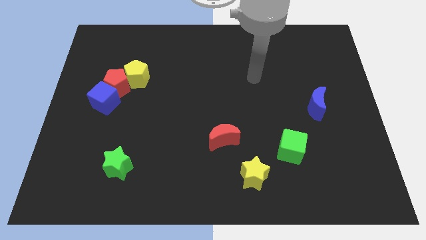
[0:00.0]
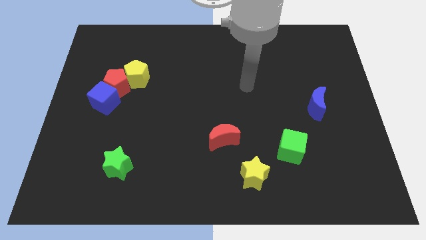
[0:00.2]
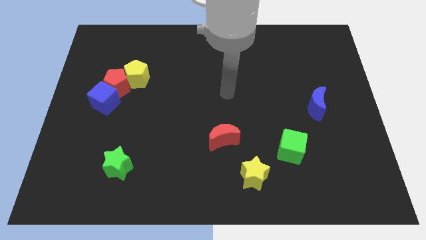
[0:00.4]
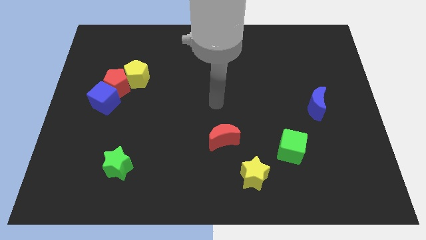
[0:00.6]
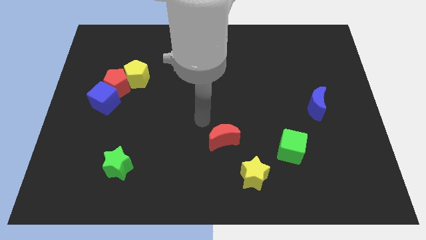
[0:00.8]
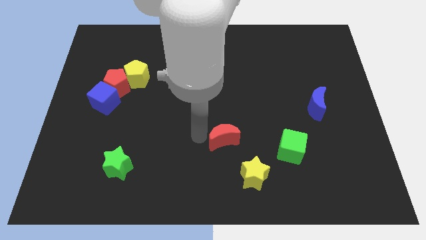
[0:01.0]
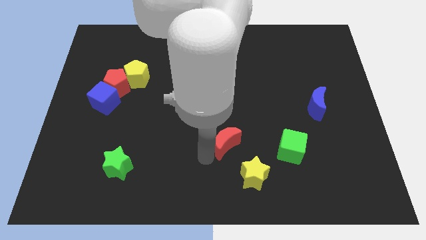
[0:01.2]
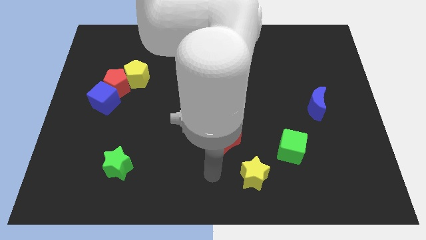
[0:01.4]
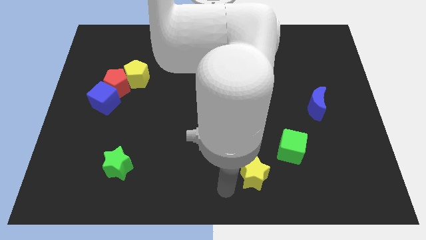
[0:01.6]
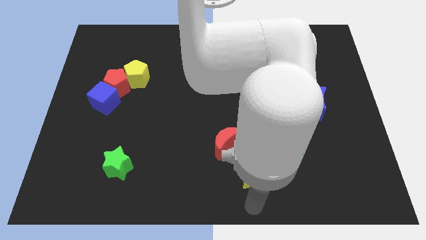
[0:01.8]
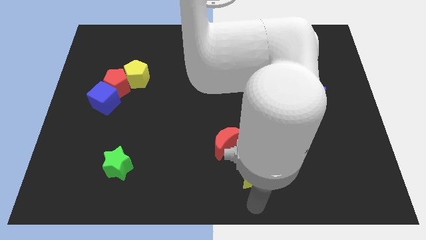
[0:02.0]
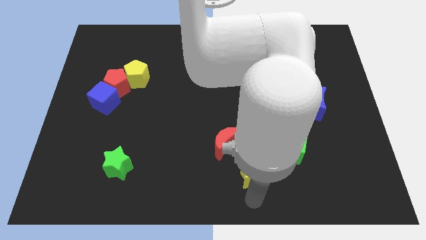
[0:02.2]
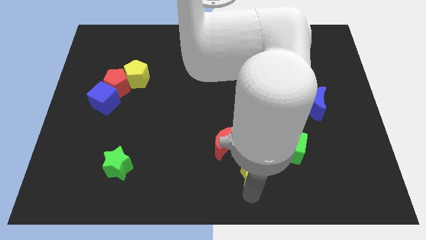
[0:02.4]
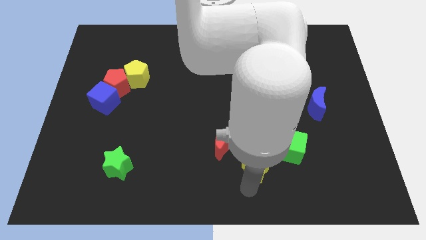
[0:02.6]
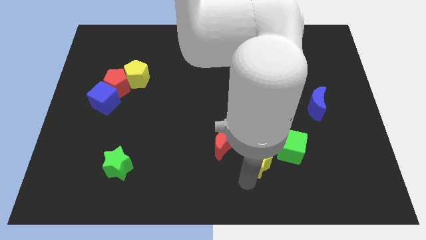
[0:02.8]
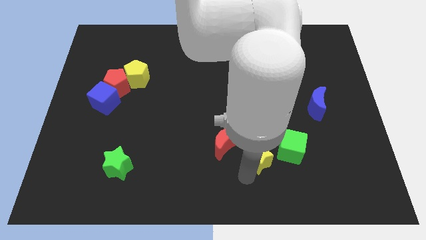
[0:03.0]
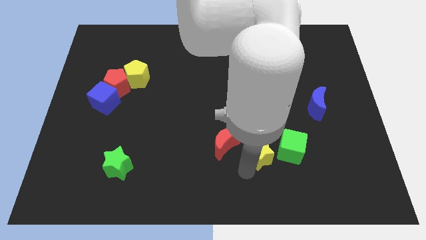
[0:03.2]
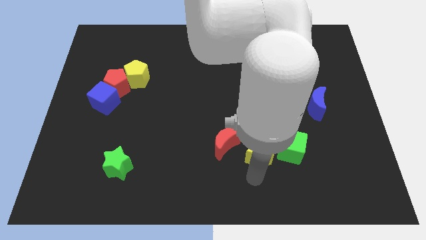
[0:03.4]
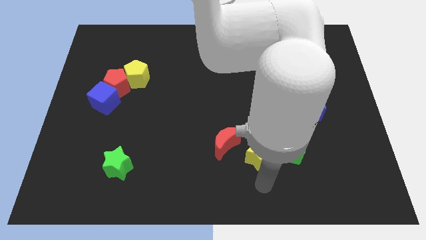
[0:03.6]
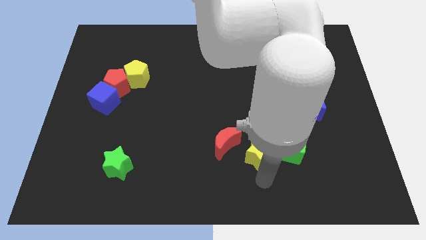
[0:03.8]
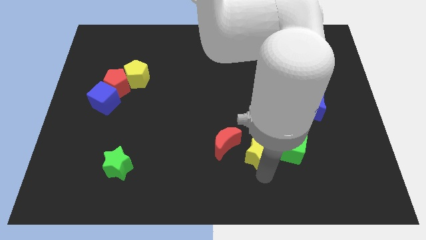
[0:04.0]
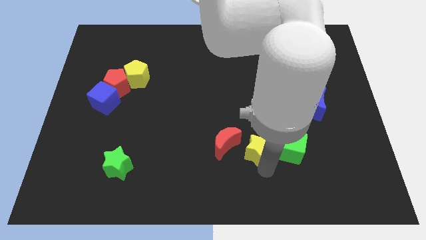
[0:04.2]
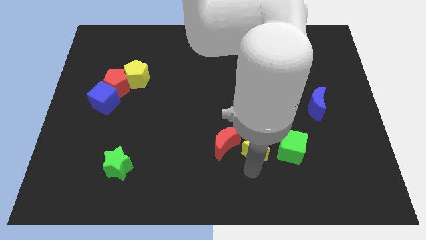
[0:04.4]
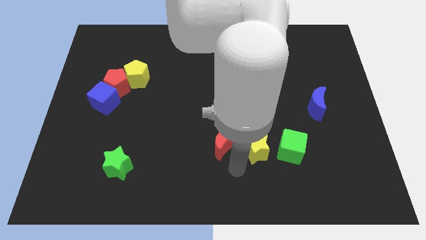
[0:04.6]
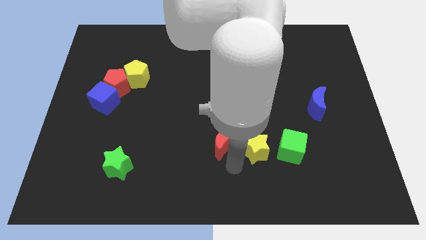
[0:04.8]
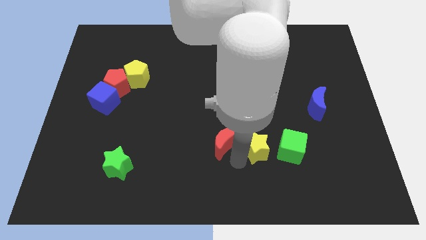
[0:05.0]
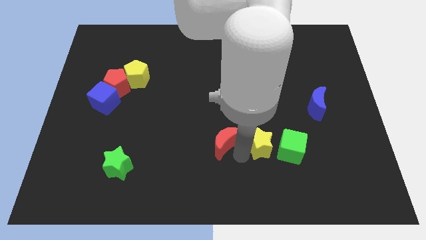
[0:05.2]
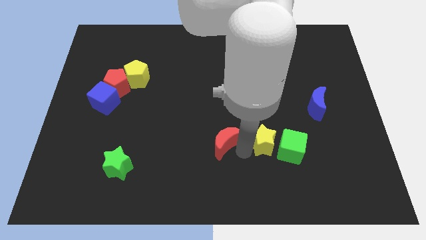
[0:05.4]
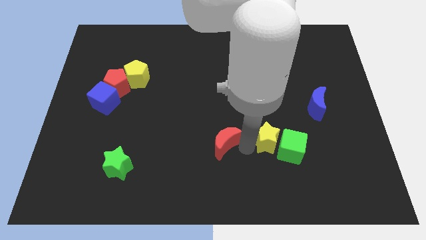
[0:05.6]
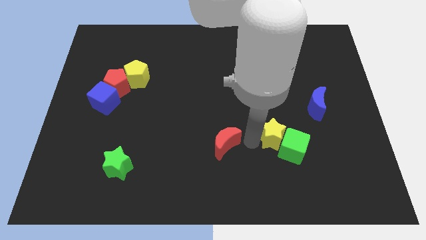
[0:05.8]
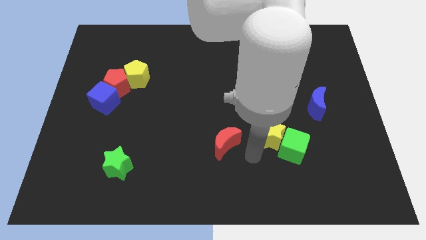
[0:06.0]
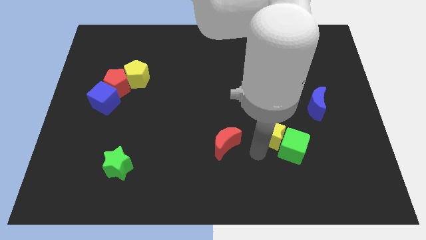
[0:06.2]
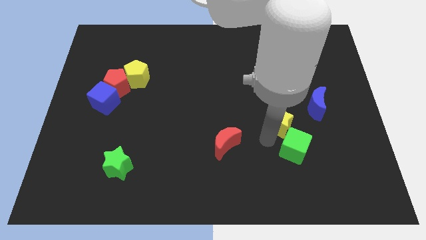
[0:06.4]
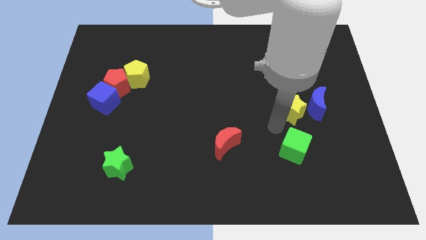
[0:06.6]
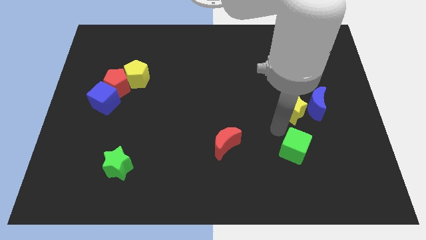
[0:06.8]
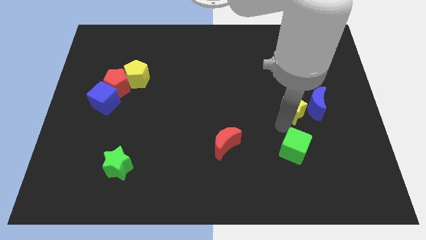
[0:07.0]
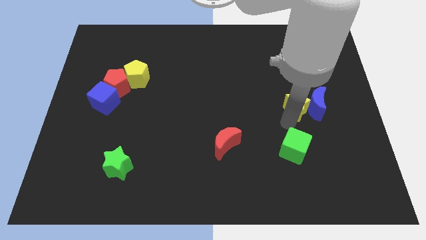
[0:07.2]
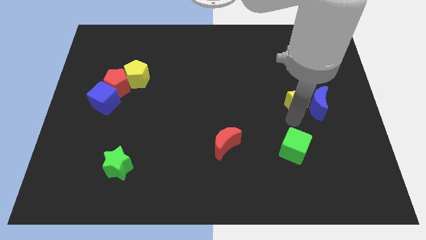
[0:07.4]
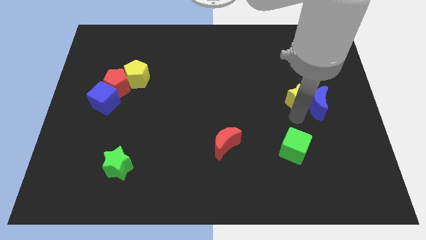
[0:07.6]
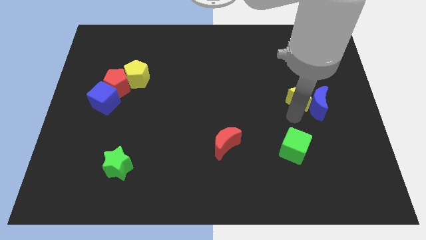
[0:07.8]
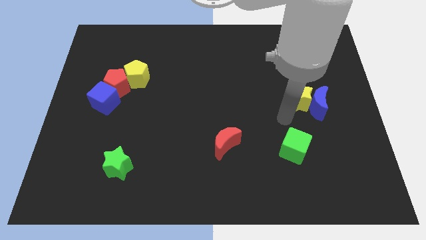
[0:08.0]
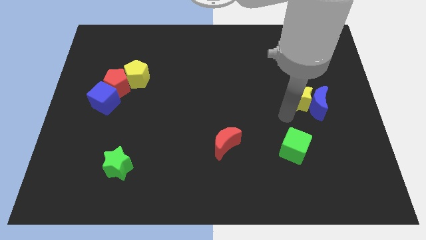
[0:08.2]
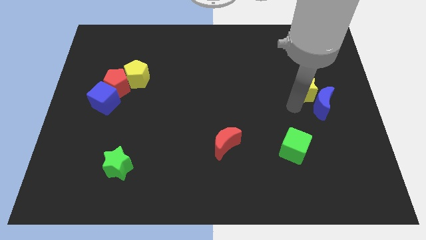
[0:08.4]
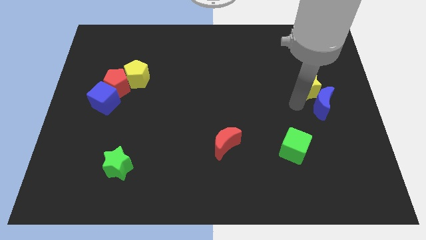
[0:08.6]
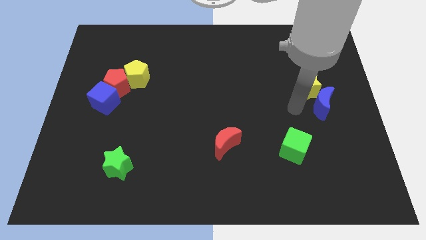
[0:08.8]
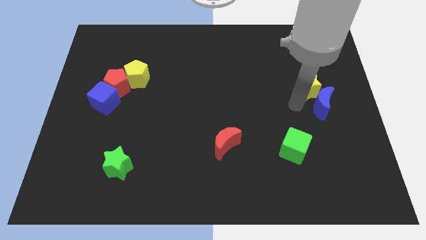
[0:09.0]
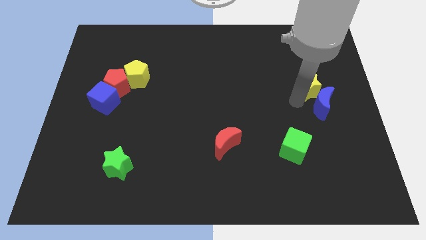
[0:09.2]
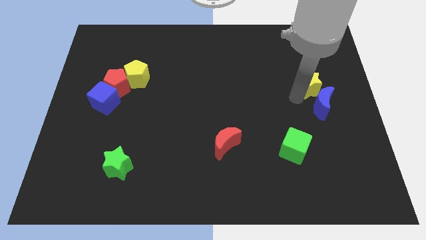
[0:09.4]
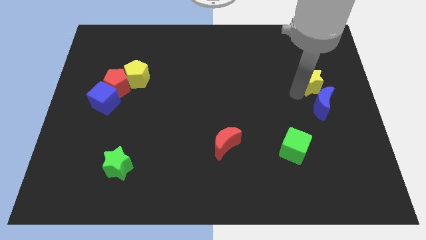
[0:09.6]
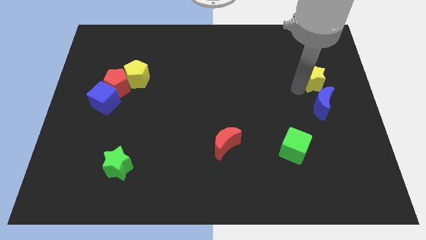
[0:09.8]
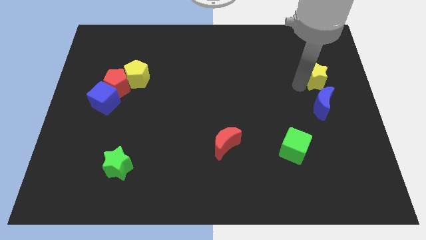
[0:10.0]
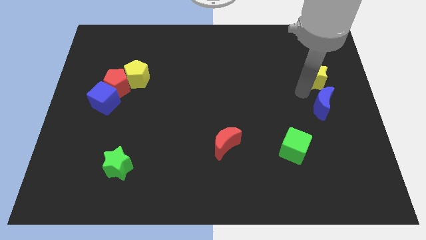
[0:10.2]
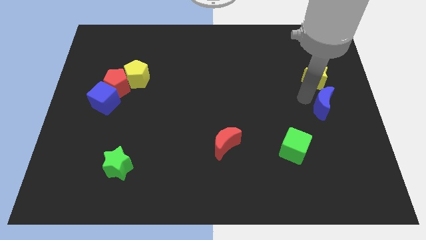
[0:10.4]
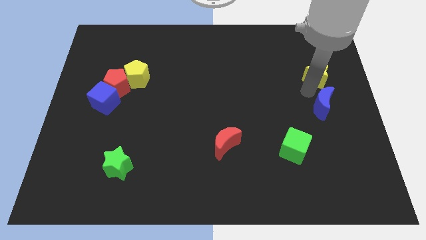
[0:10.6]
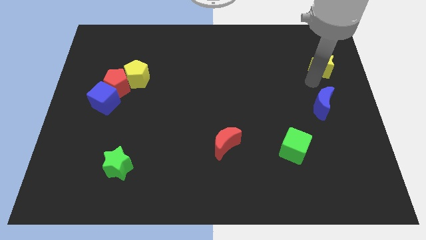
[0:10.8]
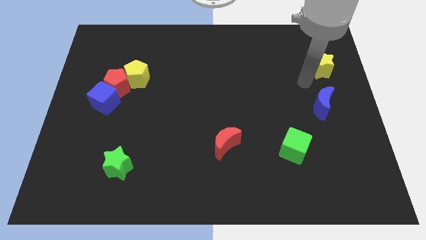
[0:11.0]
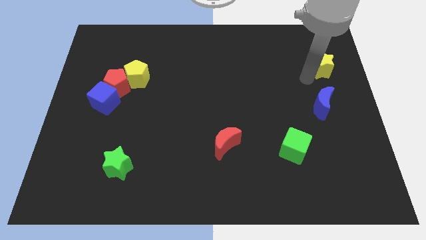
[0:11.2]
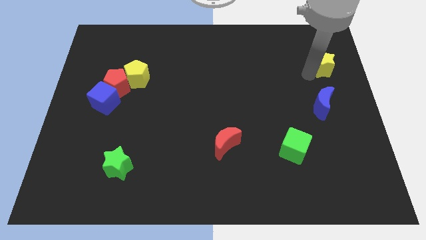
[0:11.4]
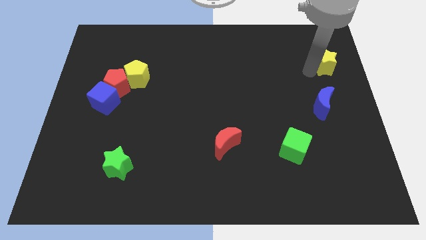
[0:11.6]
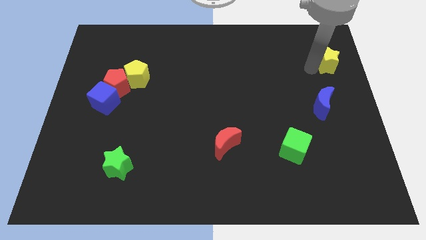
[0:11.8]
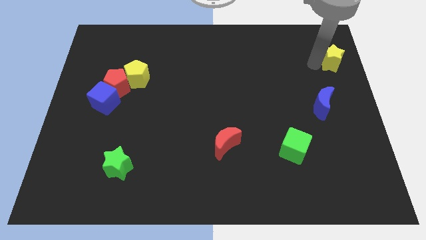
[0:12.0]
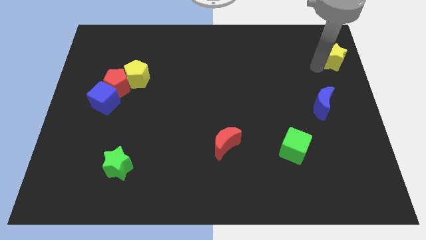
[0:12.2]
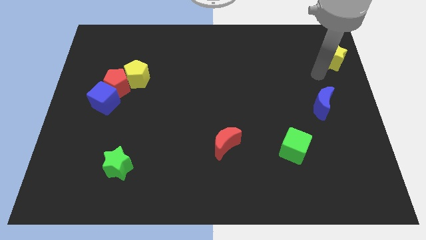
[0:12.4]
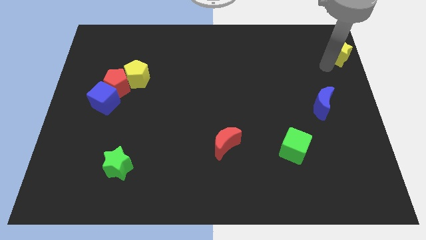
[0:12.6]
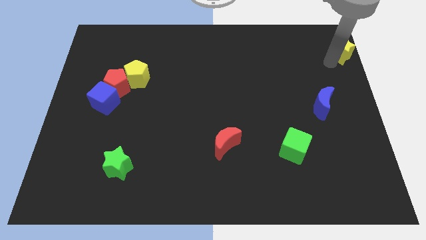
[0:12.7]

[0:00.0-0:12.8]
put the yellow star to the top right

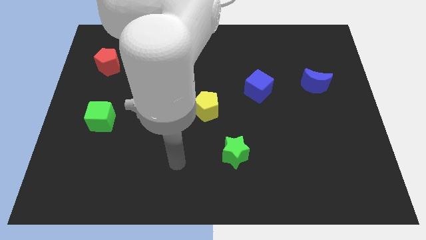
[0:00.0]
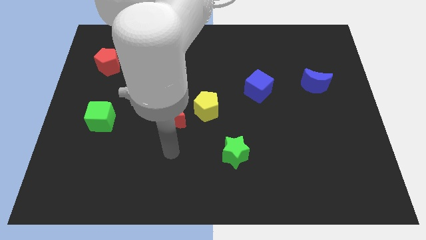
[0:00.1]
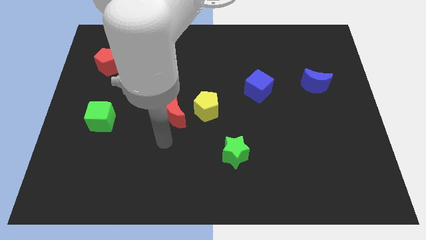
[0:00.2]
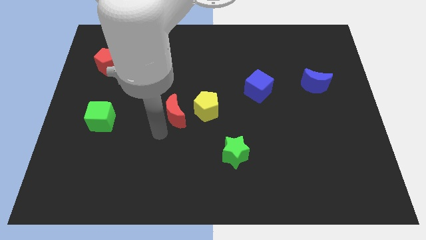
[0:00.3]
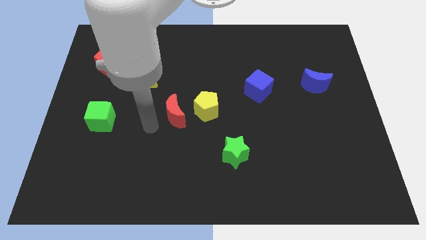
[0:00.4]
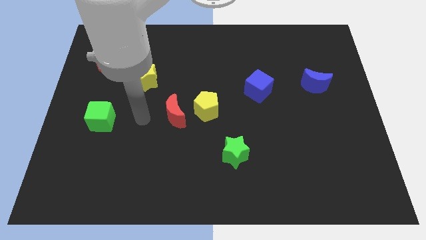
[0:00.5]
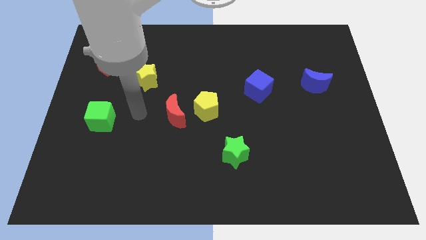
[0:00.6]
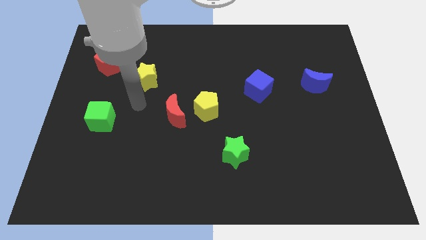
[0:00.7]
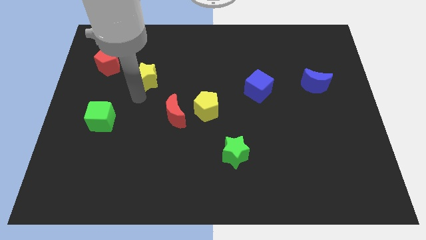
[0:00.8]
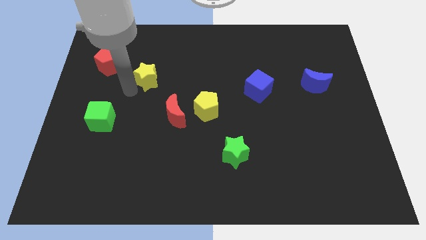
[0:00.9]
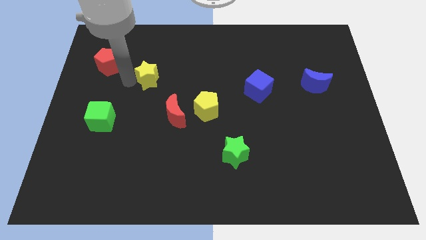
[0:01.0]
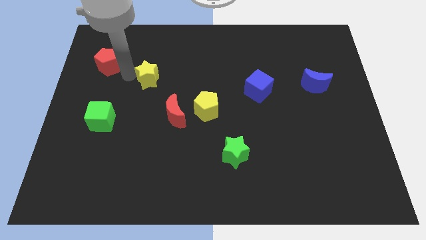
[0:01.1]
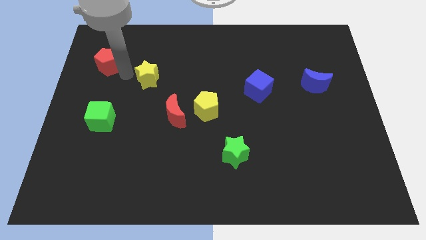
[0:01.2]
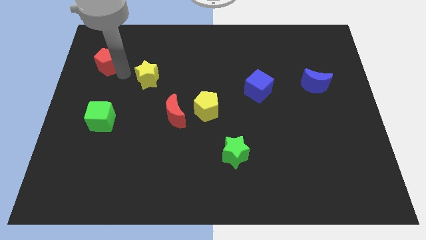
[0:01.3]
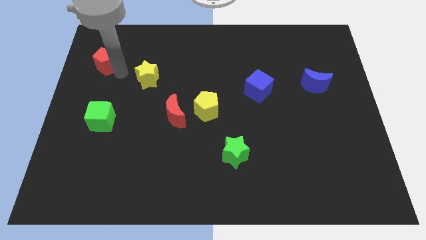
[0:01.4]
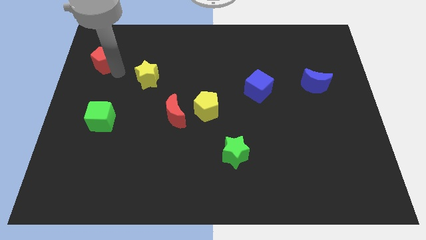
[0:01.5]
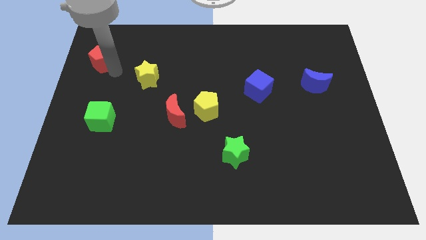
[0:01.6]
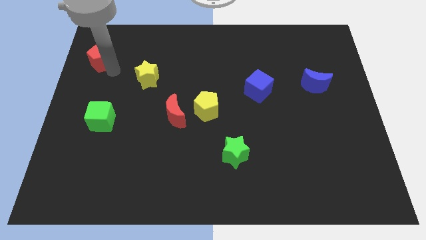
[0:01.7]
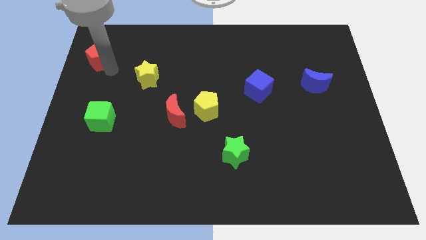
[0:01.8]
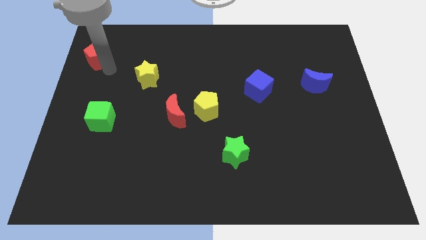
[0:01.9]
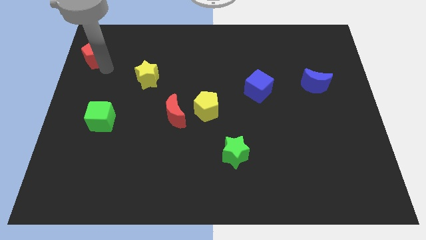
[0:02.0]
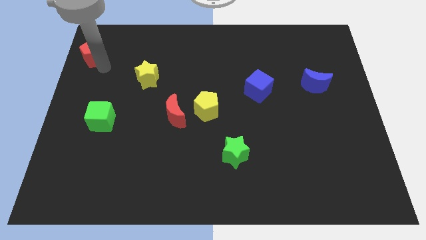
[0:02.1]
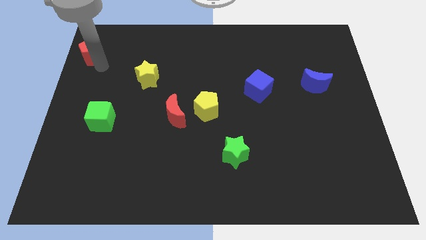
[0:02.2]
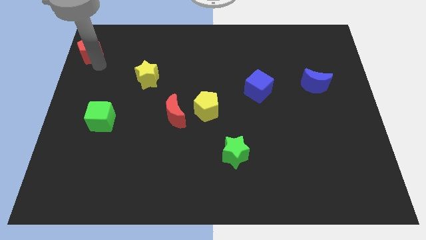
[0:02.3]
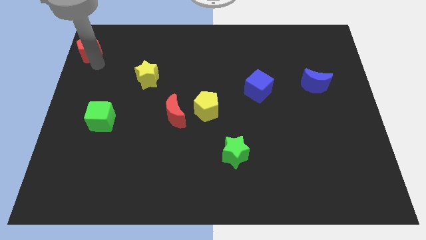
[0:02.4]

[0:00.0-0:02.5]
slide the red pentagon to the top left corner
